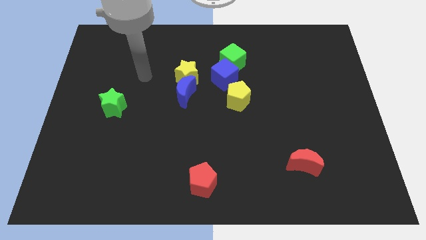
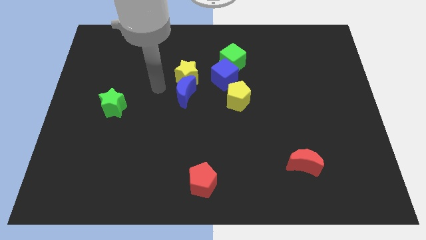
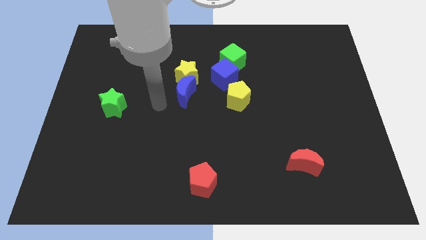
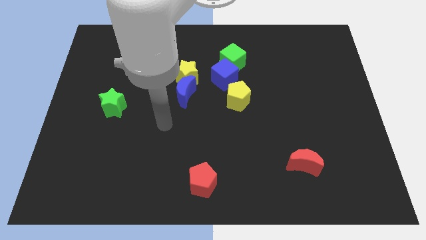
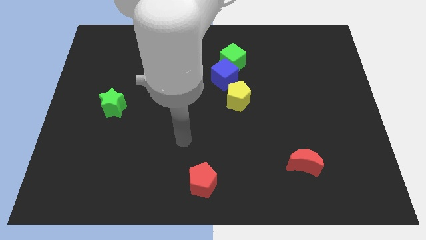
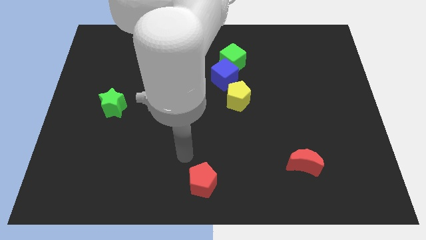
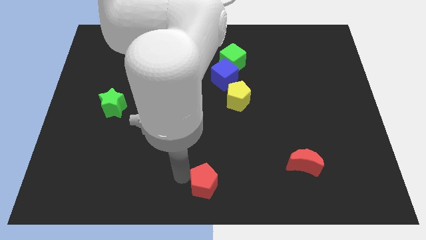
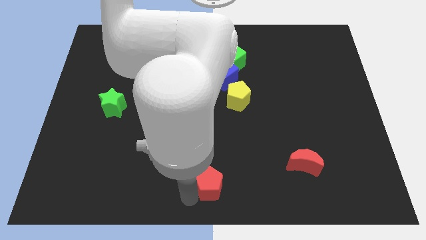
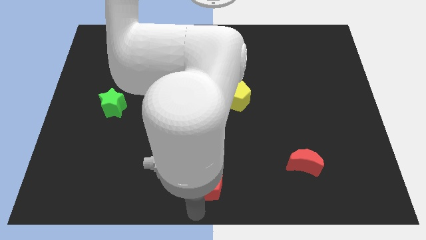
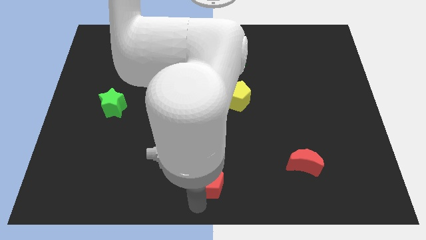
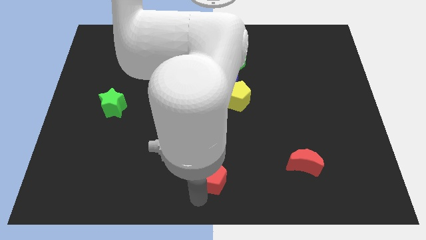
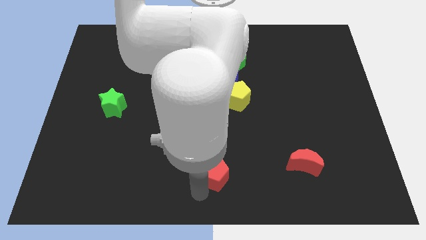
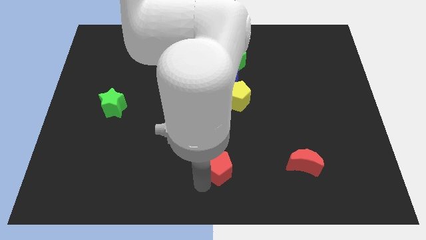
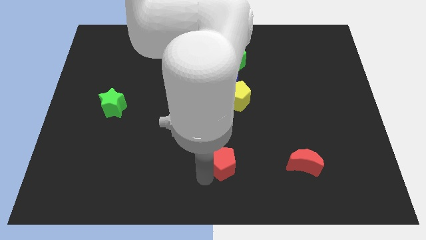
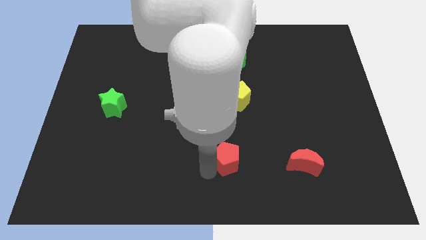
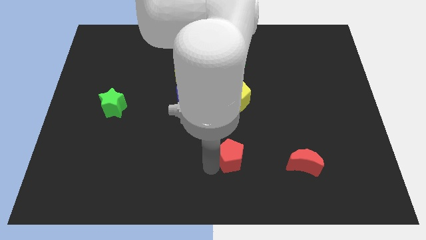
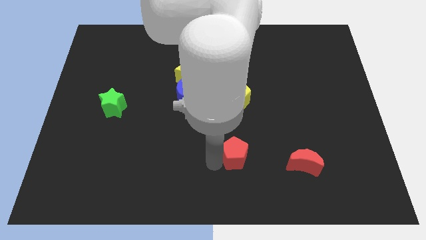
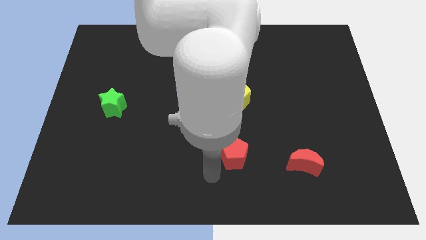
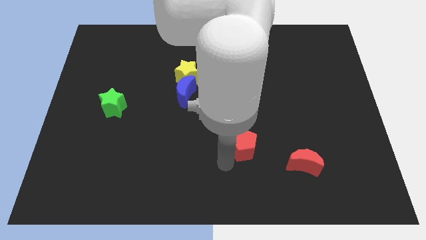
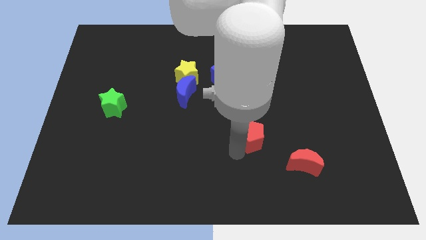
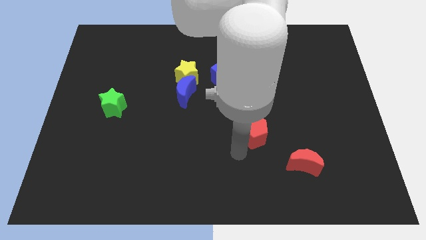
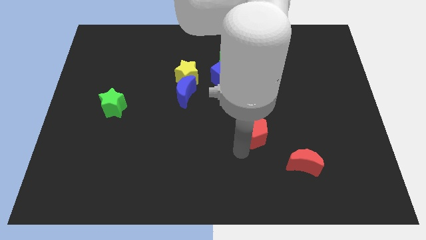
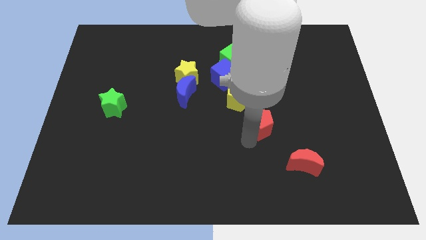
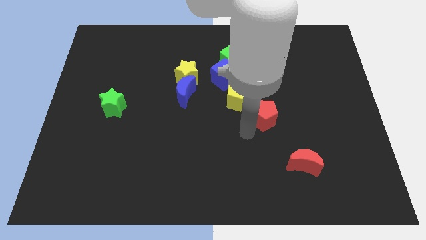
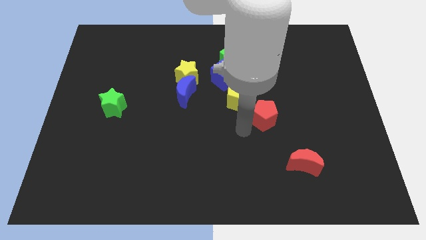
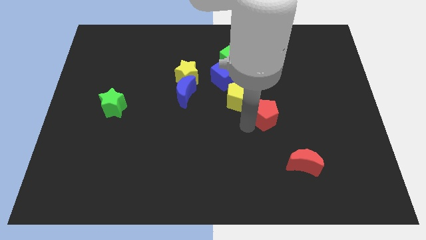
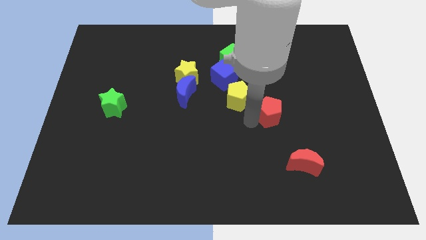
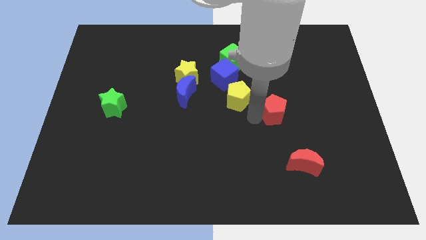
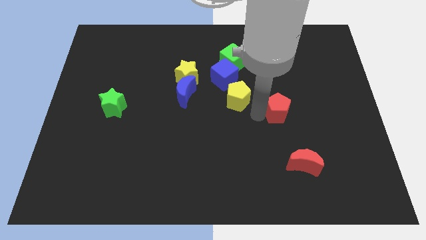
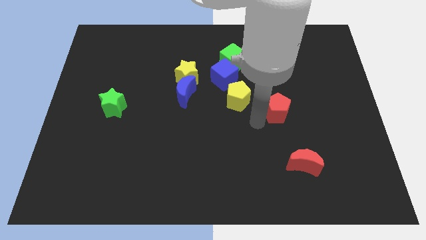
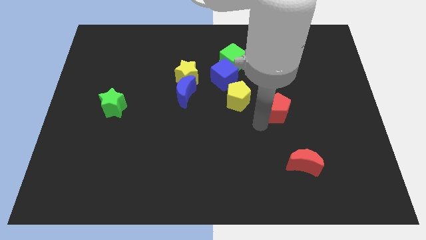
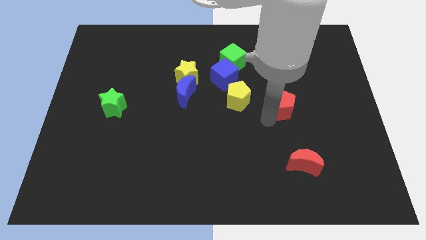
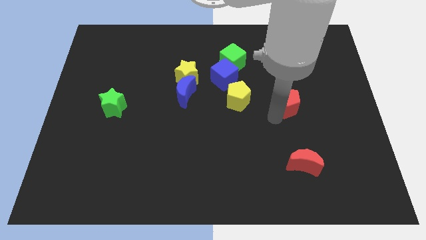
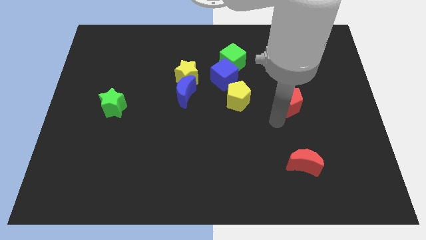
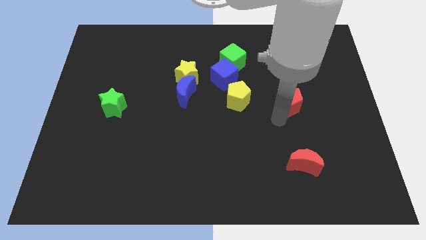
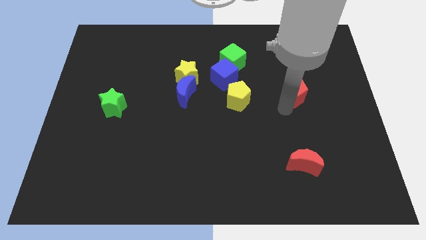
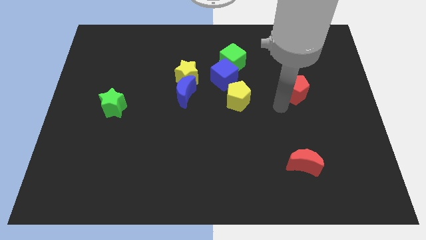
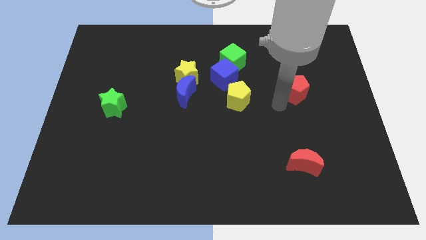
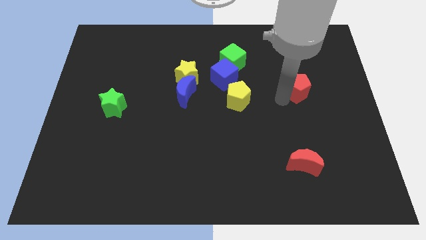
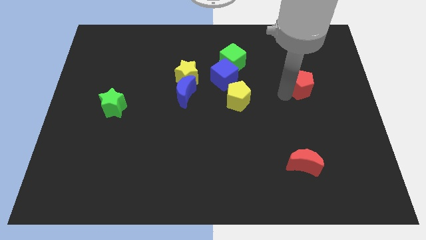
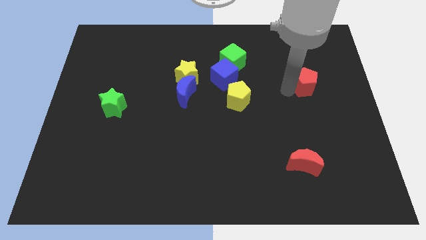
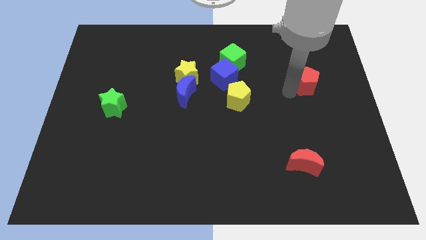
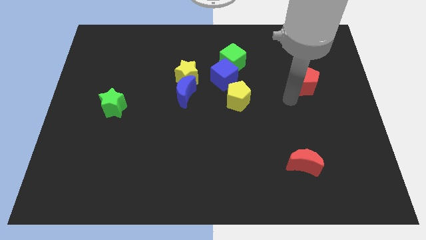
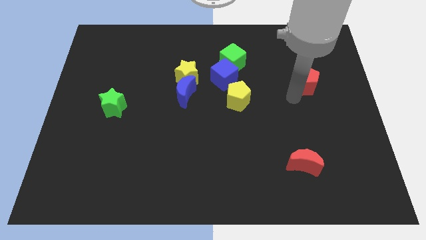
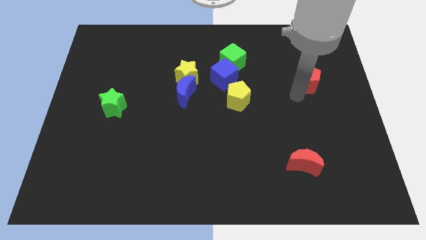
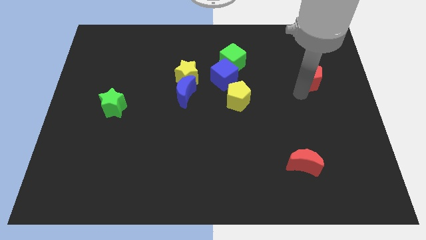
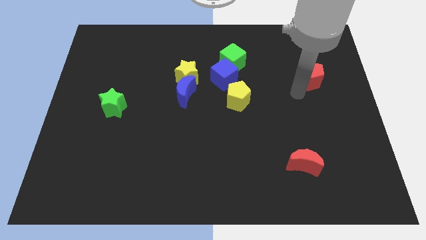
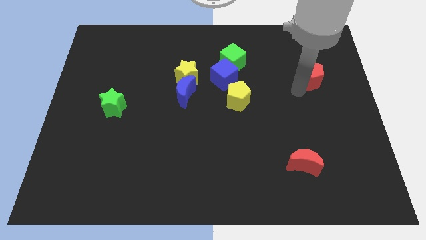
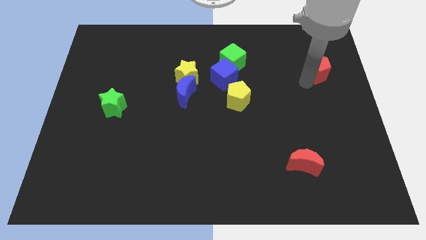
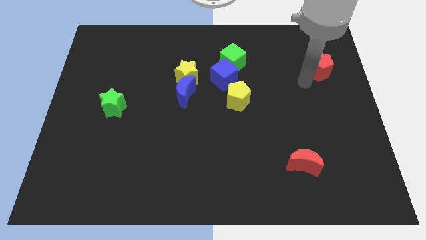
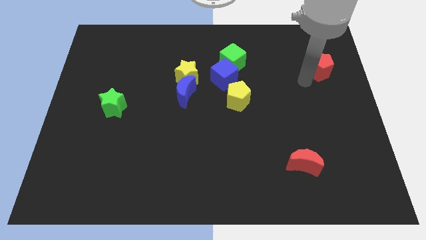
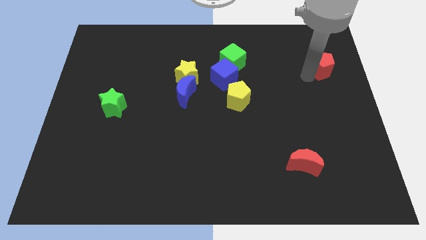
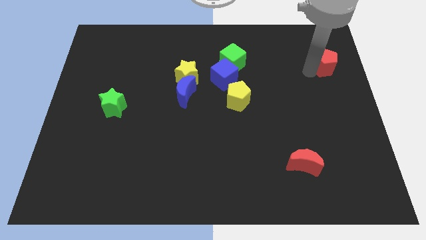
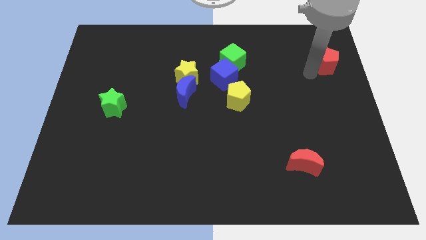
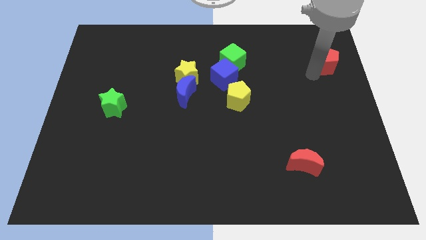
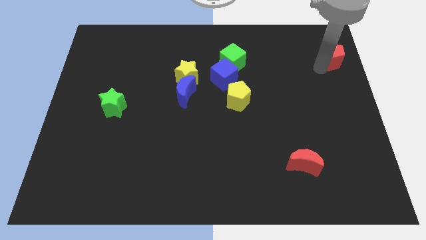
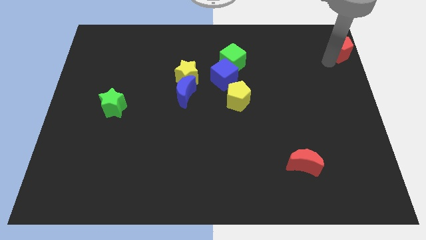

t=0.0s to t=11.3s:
push the red pentagon to the top right of the board

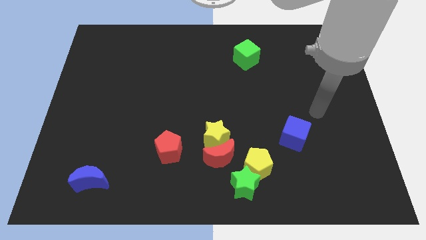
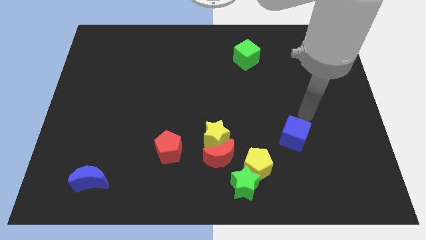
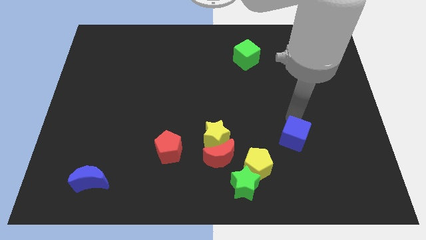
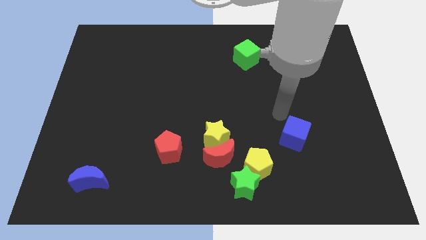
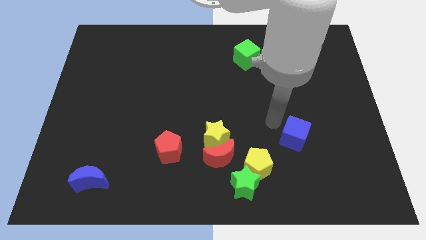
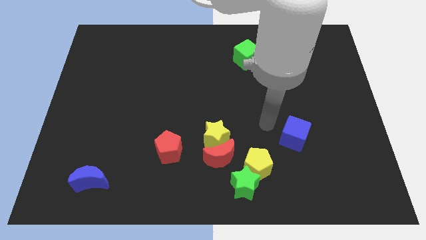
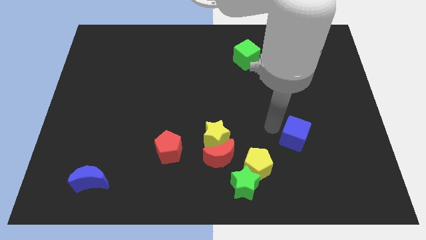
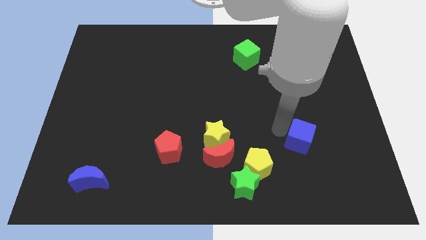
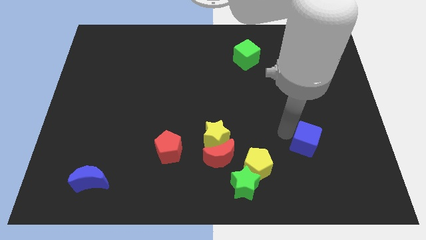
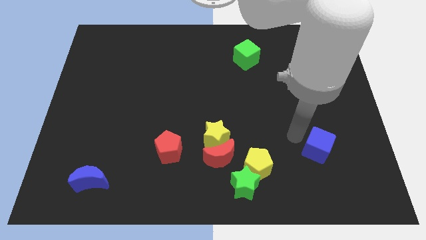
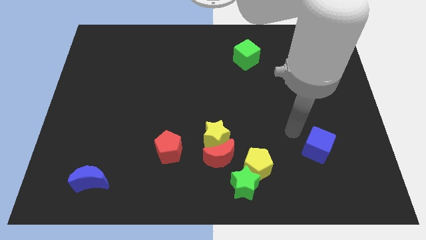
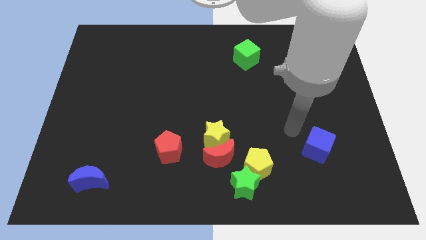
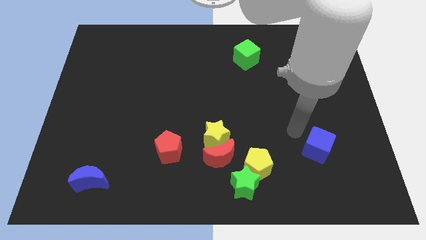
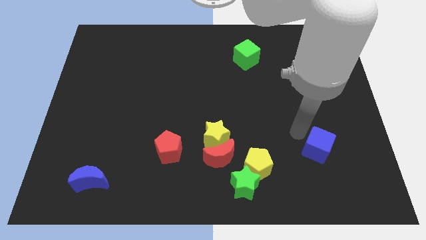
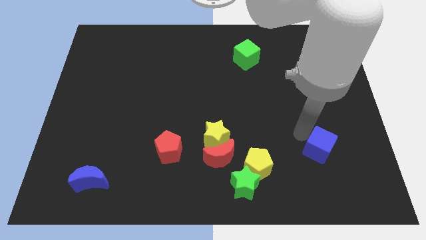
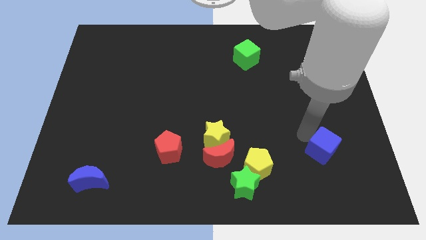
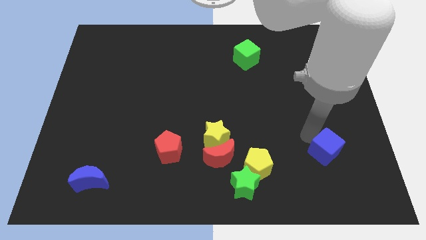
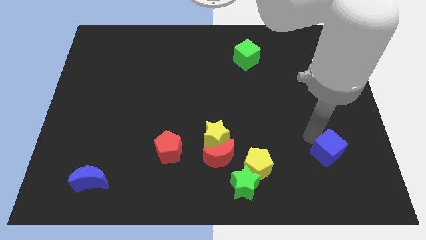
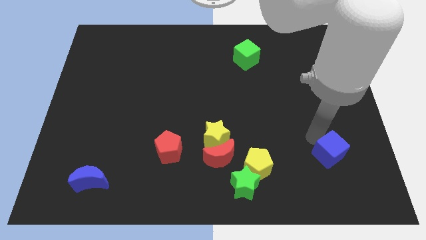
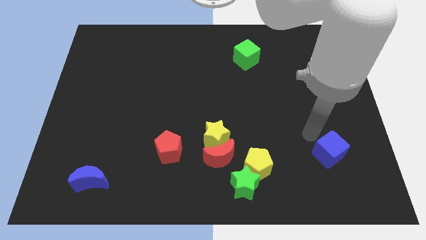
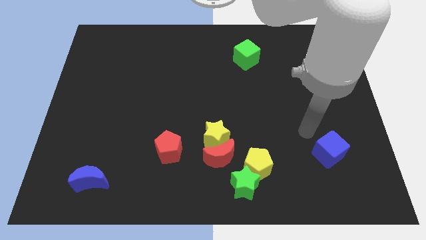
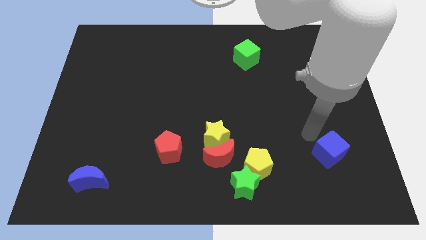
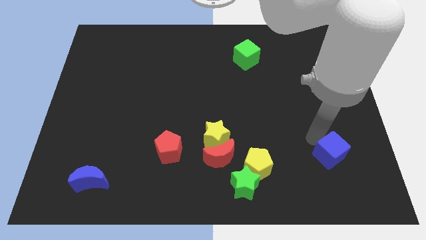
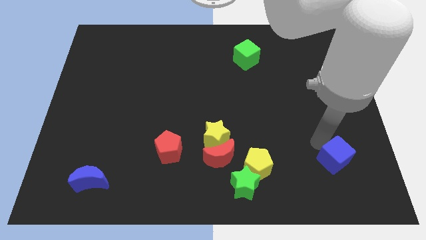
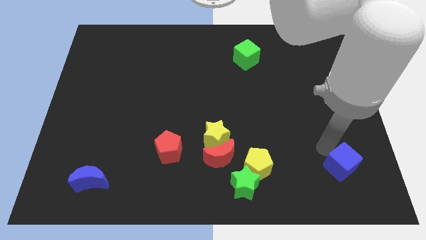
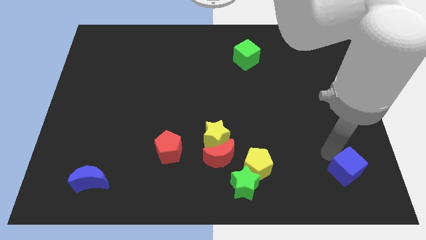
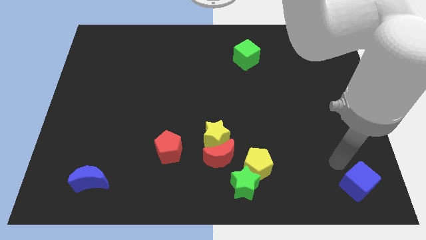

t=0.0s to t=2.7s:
slide the blue cube to the bottom right of the board
